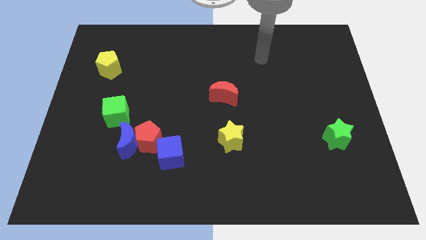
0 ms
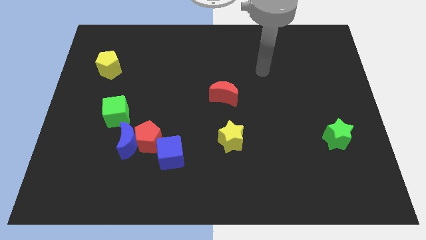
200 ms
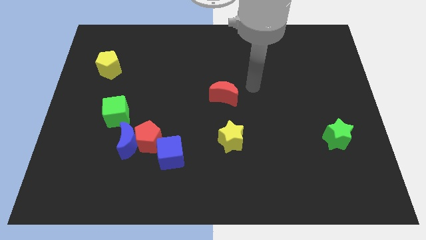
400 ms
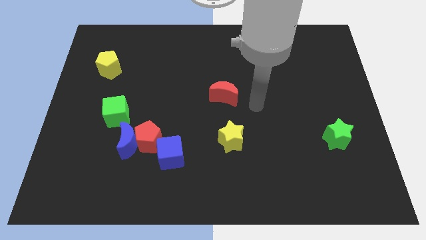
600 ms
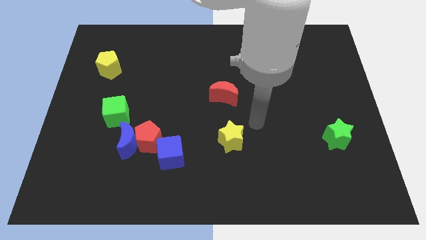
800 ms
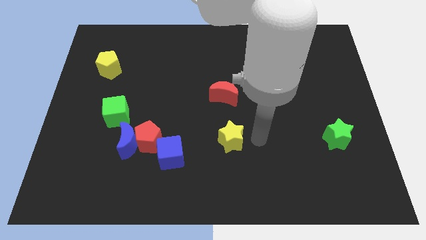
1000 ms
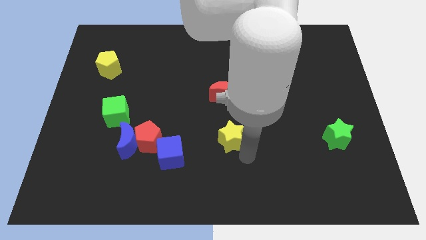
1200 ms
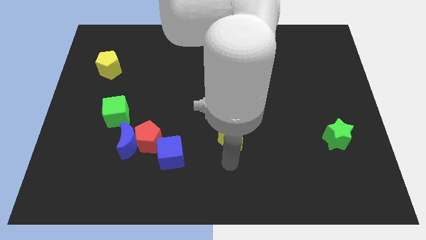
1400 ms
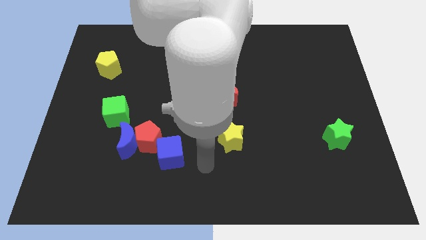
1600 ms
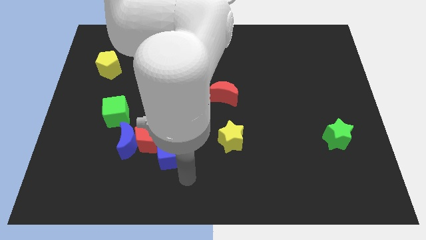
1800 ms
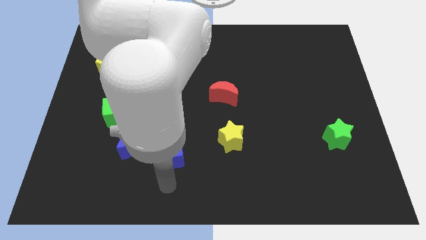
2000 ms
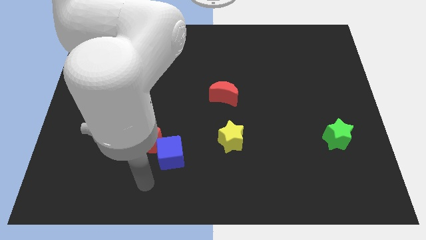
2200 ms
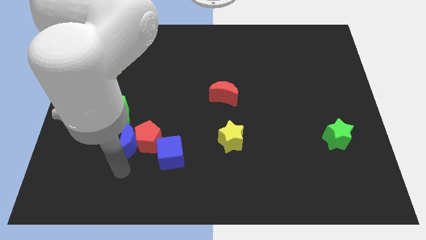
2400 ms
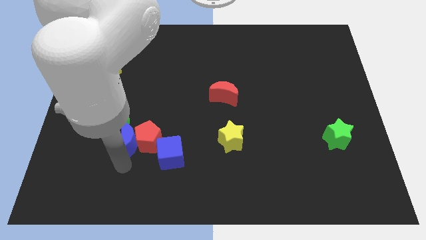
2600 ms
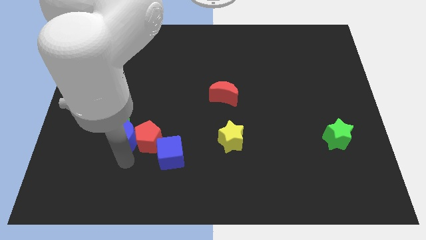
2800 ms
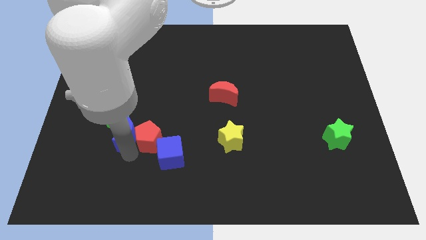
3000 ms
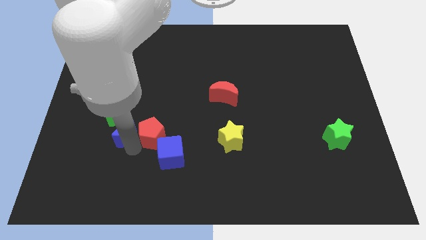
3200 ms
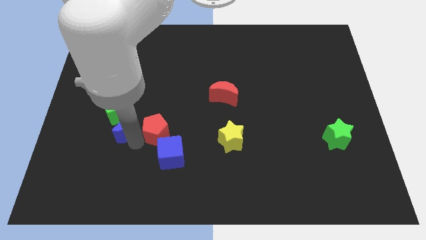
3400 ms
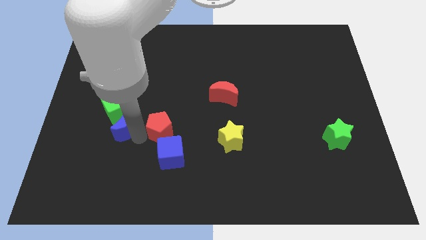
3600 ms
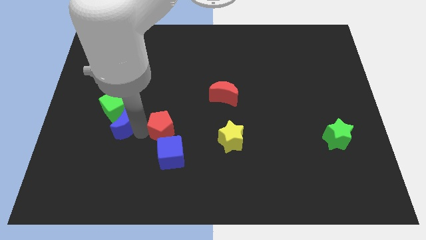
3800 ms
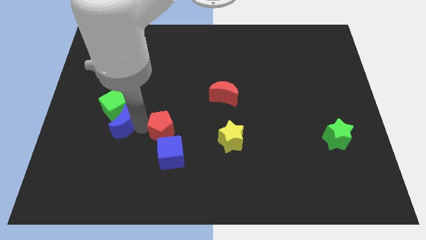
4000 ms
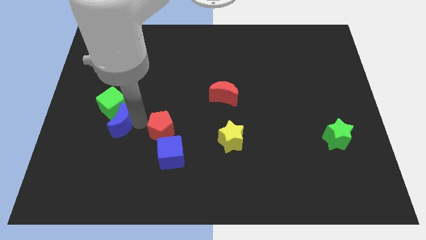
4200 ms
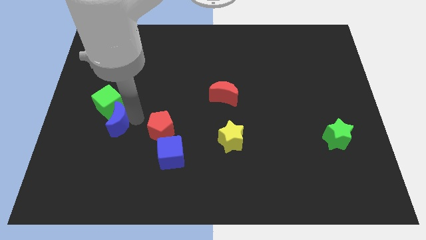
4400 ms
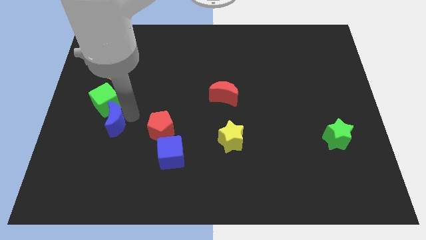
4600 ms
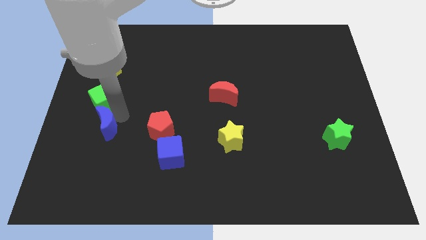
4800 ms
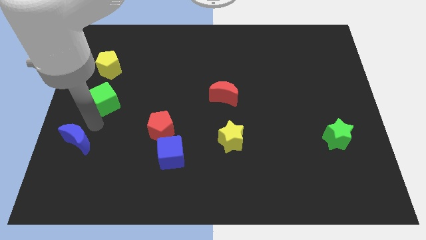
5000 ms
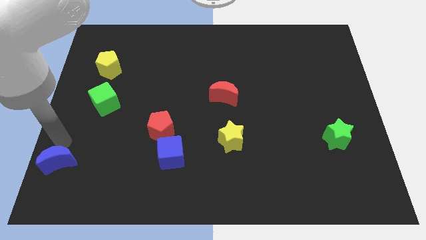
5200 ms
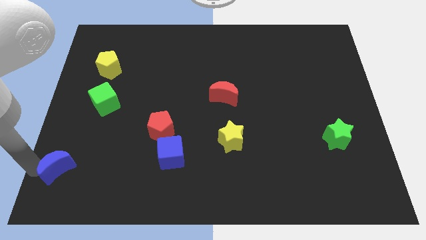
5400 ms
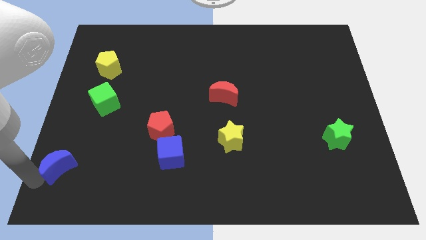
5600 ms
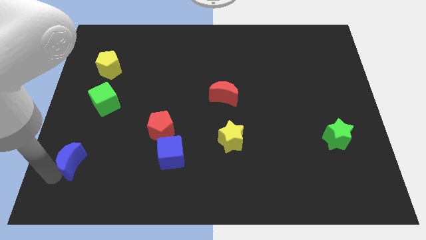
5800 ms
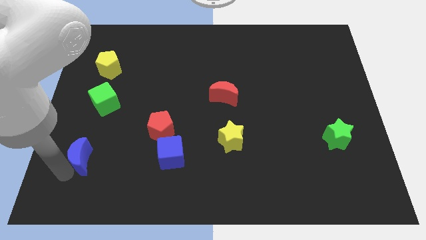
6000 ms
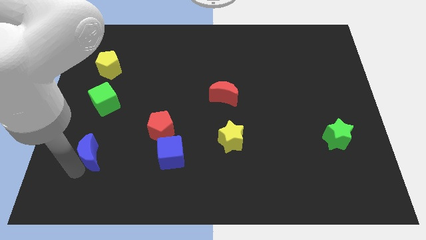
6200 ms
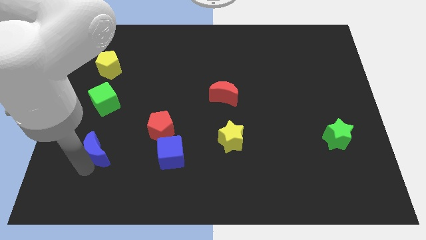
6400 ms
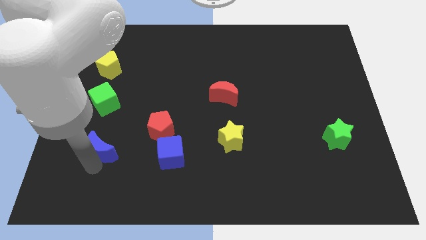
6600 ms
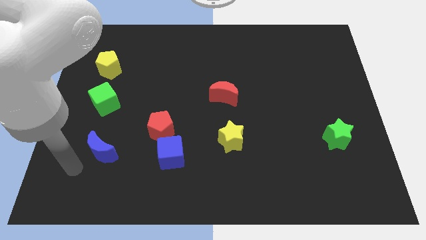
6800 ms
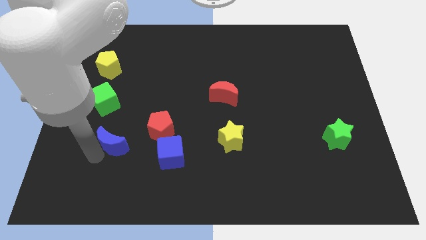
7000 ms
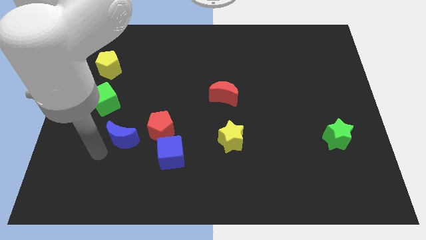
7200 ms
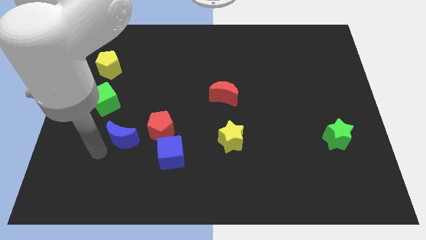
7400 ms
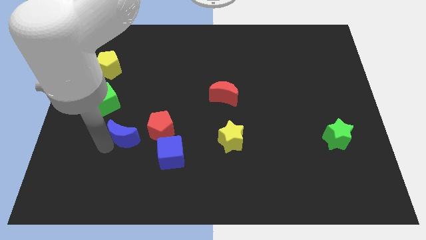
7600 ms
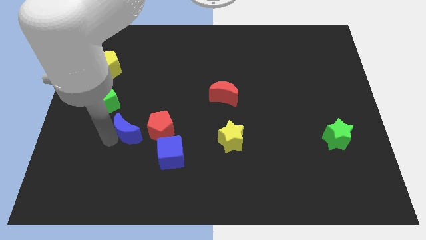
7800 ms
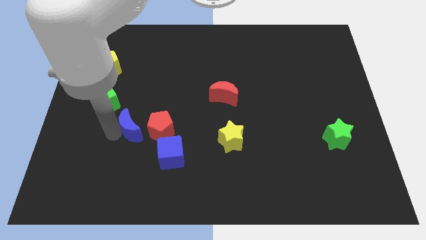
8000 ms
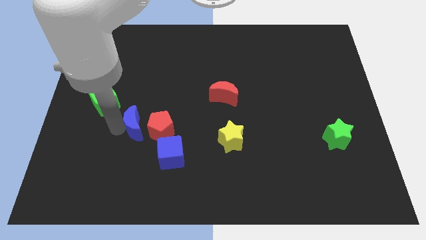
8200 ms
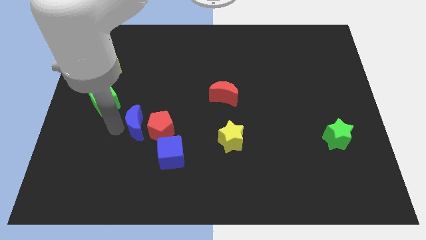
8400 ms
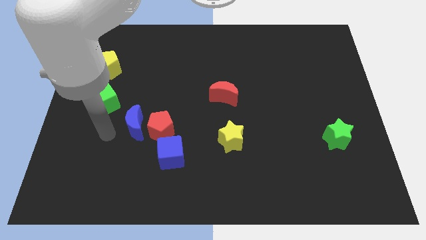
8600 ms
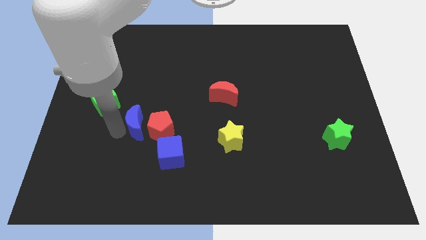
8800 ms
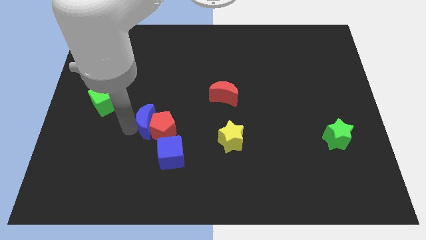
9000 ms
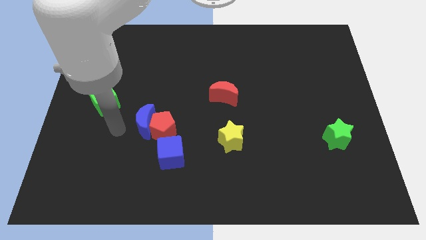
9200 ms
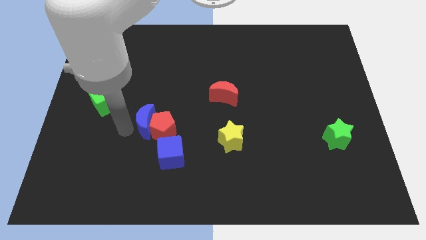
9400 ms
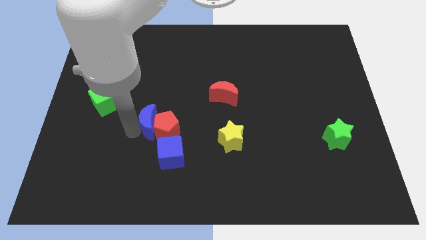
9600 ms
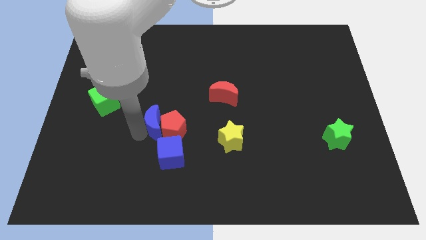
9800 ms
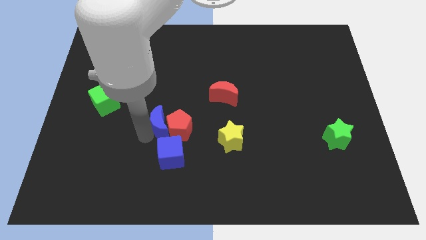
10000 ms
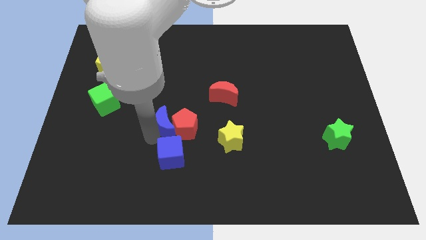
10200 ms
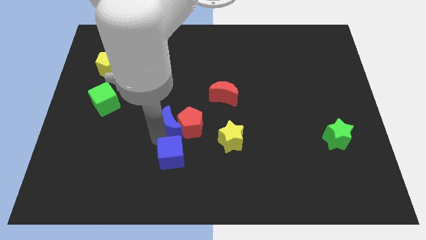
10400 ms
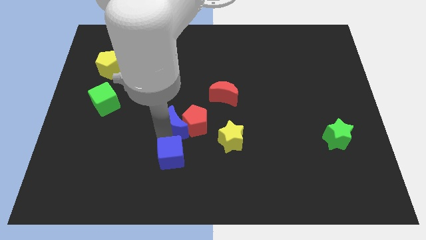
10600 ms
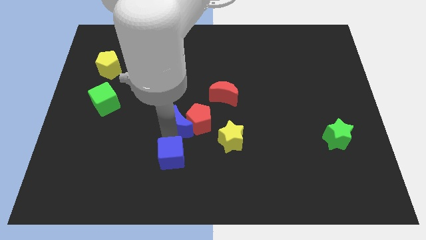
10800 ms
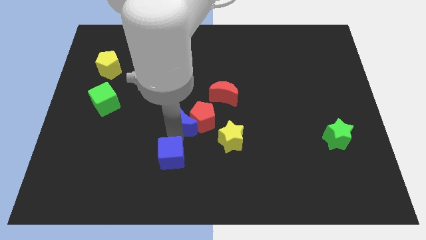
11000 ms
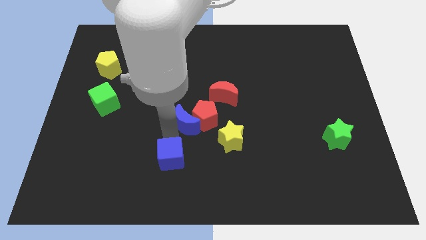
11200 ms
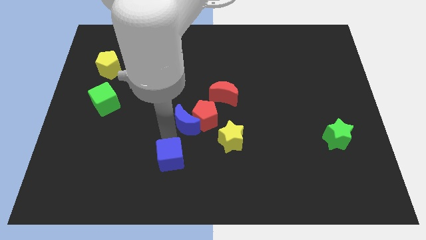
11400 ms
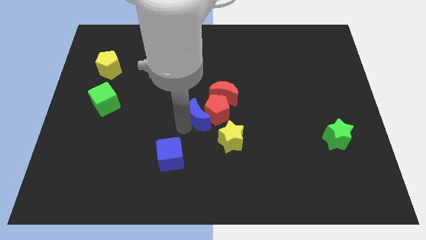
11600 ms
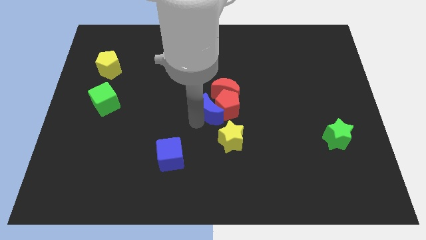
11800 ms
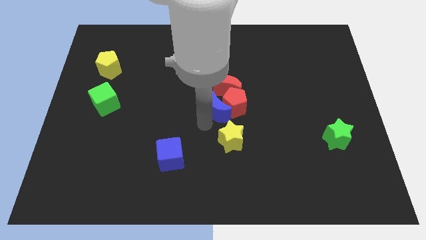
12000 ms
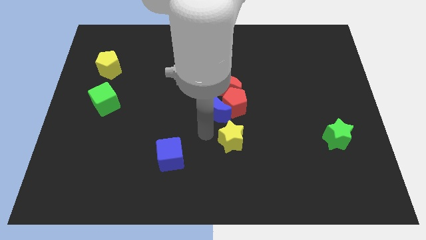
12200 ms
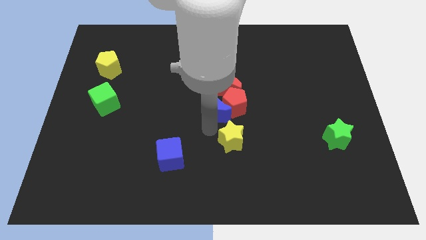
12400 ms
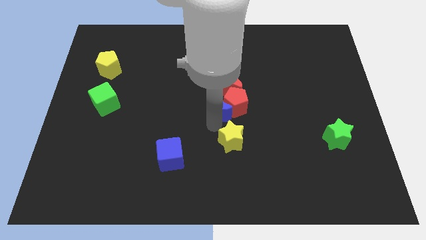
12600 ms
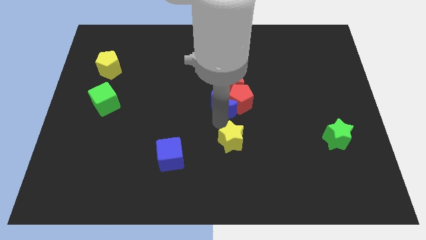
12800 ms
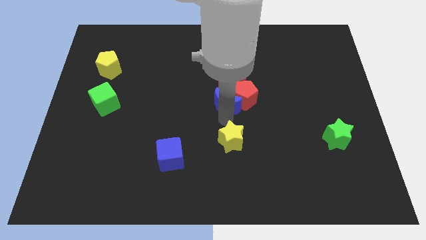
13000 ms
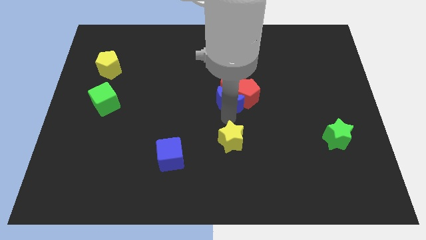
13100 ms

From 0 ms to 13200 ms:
move the blue moon to the red moon
